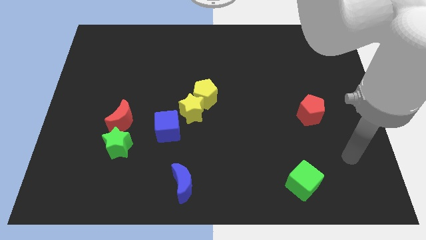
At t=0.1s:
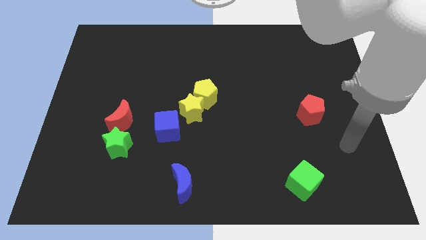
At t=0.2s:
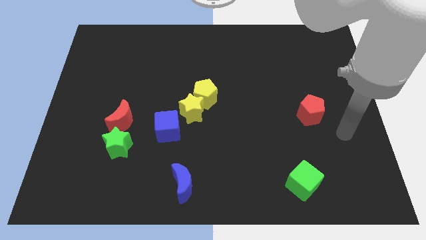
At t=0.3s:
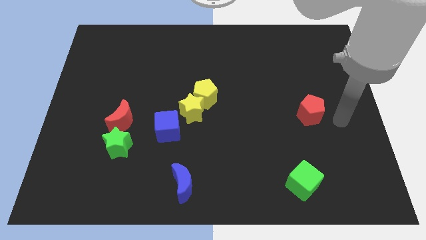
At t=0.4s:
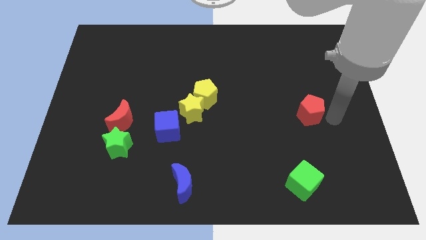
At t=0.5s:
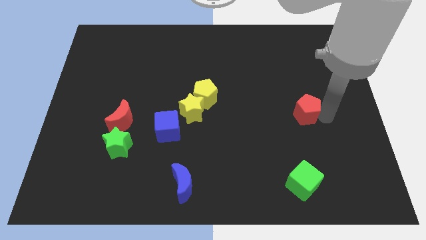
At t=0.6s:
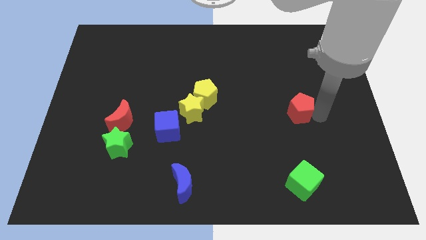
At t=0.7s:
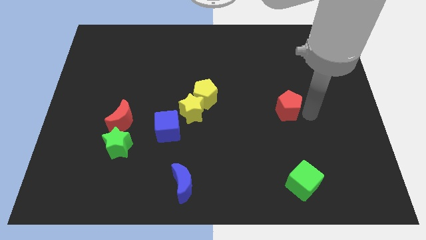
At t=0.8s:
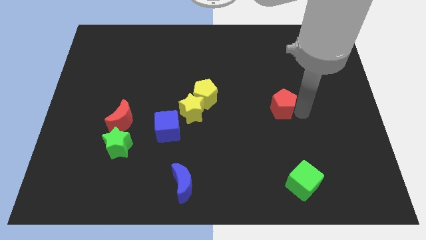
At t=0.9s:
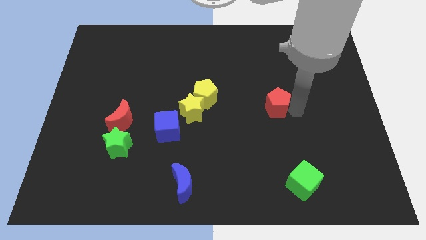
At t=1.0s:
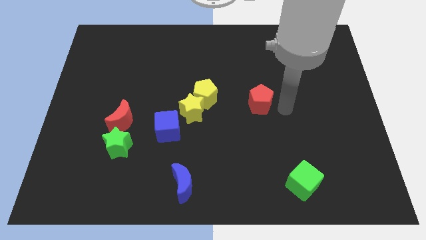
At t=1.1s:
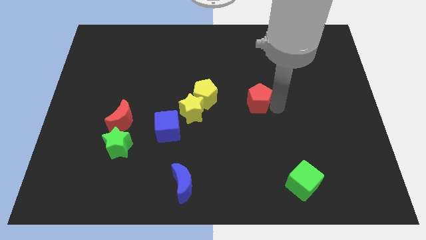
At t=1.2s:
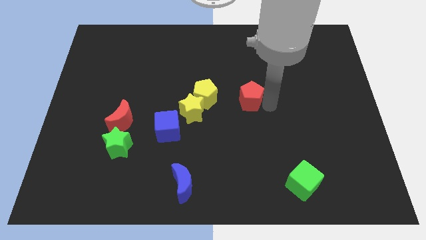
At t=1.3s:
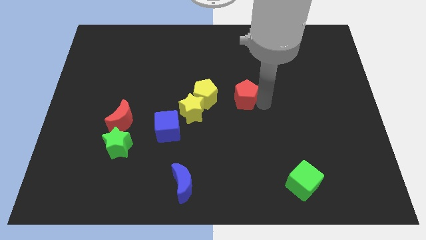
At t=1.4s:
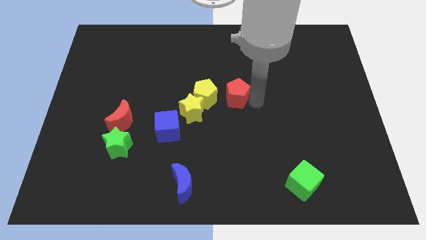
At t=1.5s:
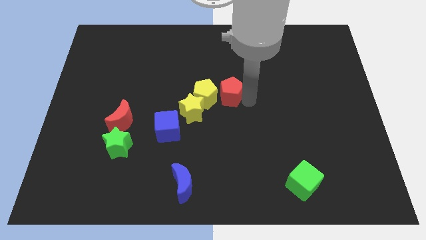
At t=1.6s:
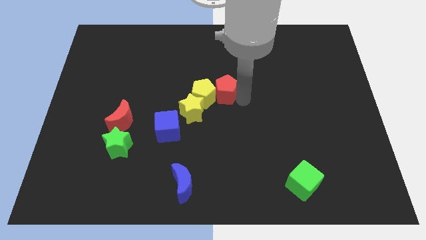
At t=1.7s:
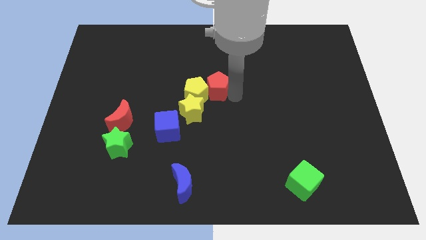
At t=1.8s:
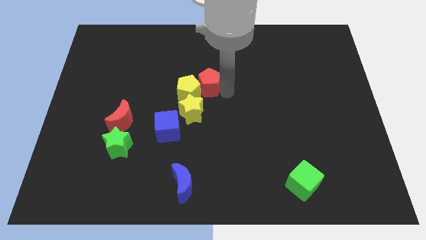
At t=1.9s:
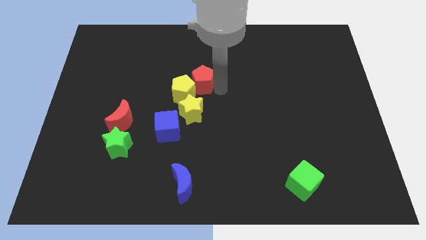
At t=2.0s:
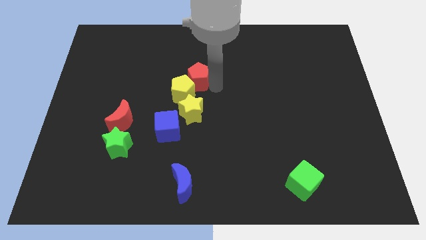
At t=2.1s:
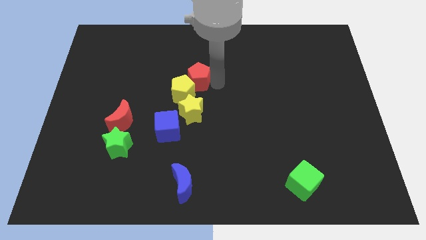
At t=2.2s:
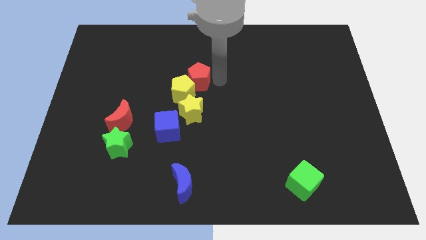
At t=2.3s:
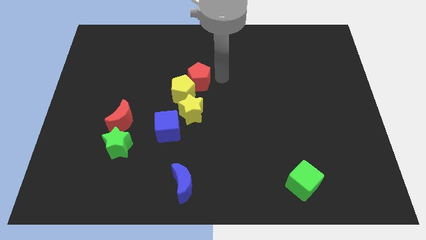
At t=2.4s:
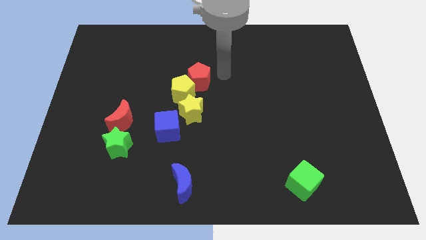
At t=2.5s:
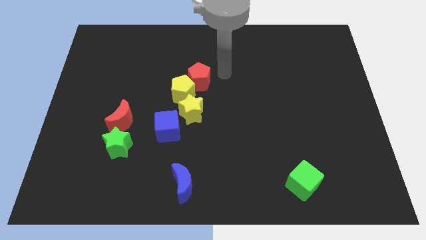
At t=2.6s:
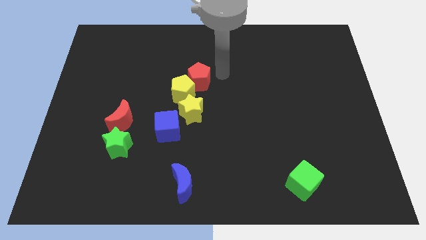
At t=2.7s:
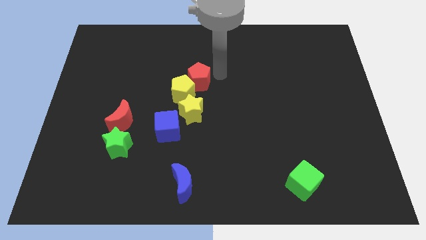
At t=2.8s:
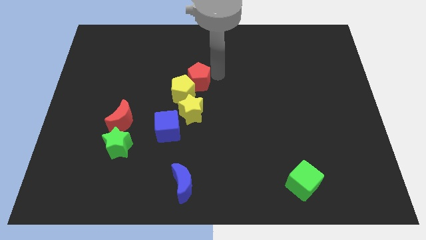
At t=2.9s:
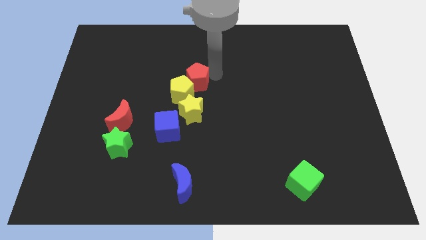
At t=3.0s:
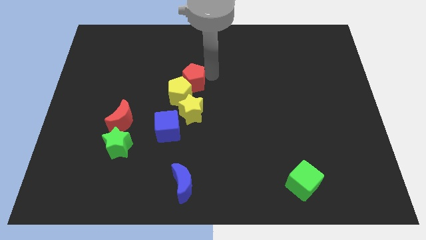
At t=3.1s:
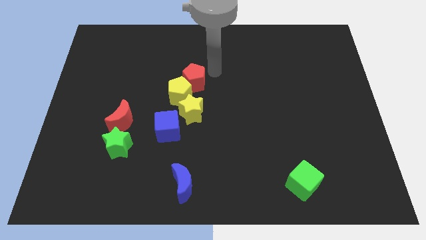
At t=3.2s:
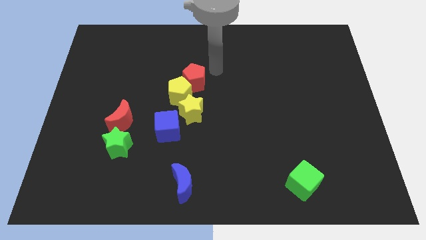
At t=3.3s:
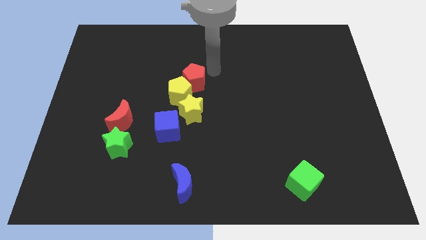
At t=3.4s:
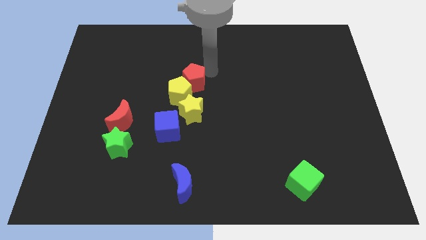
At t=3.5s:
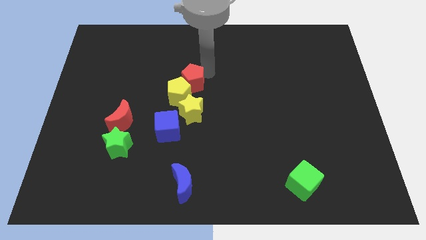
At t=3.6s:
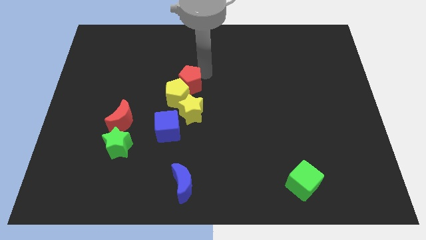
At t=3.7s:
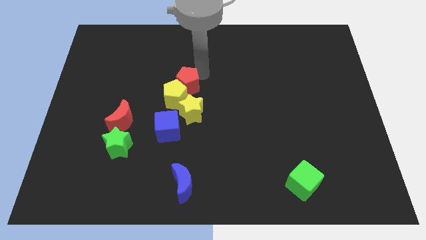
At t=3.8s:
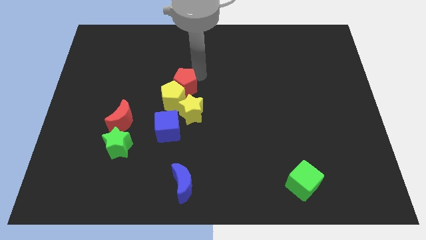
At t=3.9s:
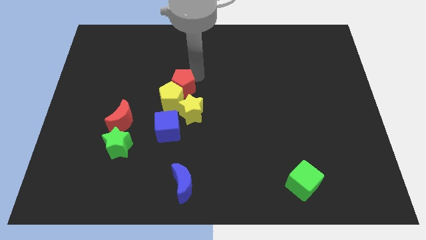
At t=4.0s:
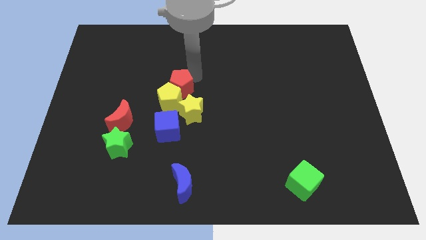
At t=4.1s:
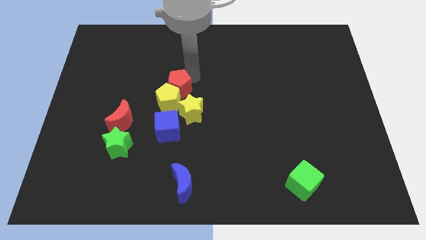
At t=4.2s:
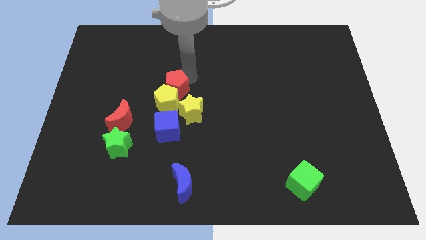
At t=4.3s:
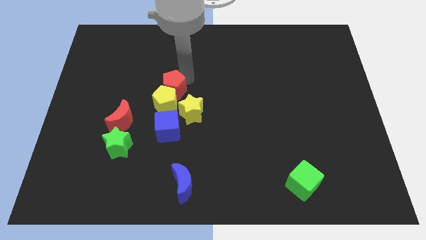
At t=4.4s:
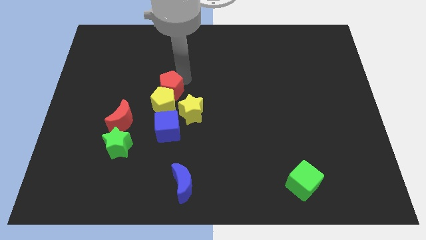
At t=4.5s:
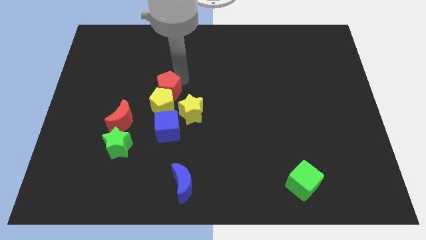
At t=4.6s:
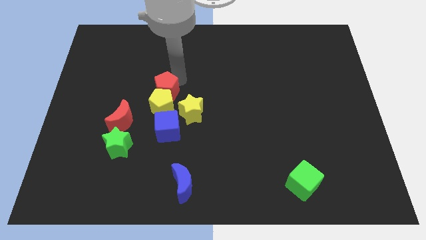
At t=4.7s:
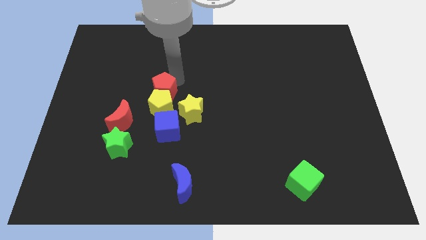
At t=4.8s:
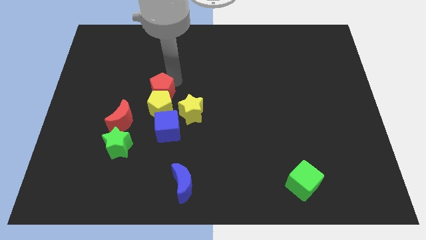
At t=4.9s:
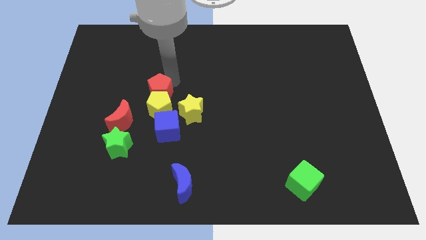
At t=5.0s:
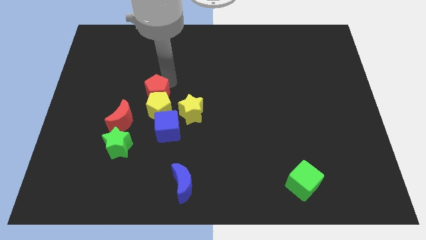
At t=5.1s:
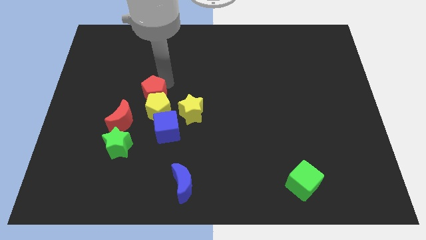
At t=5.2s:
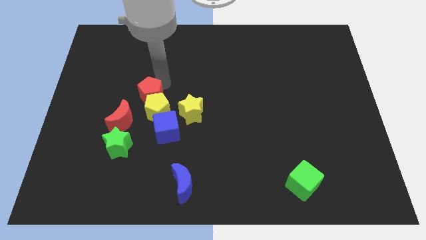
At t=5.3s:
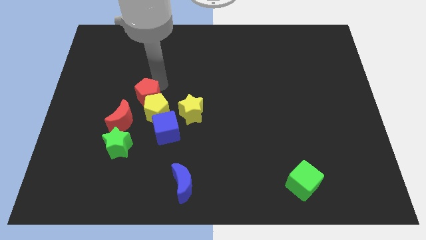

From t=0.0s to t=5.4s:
push the red pentagon to the left side of the yellow star

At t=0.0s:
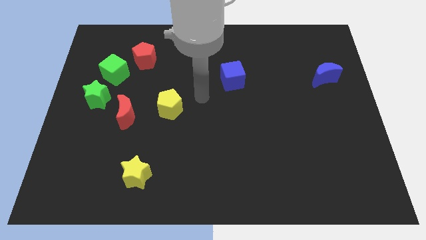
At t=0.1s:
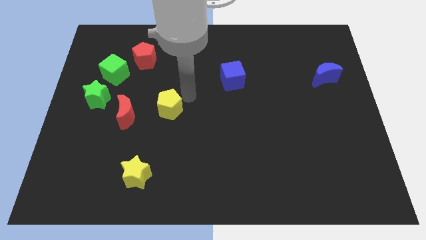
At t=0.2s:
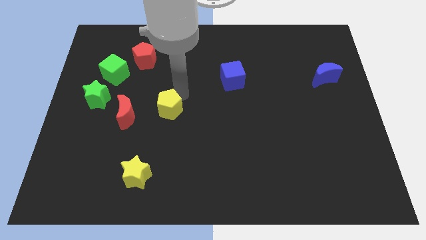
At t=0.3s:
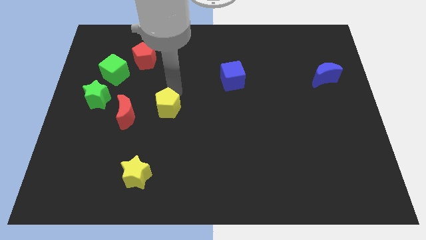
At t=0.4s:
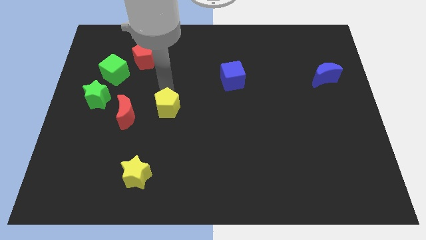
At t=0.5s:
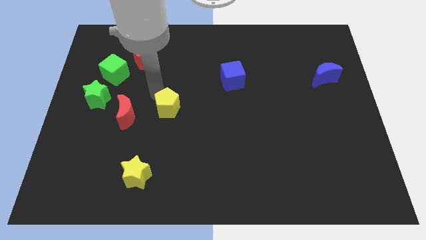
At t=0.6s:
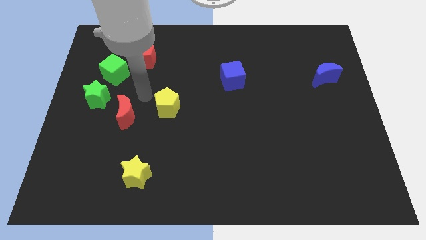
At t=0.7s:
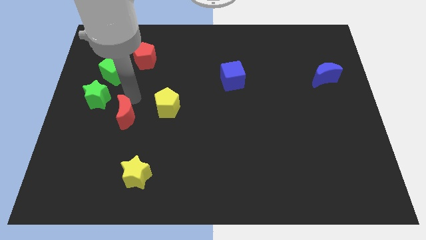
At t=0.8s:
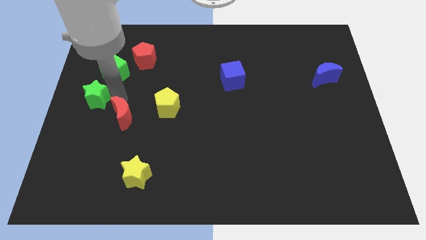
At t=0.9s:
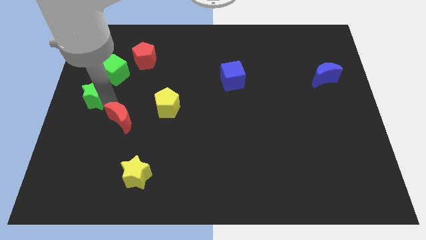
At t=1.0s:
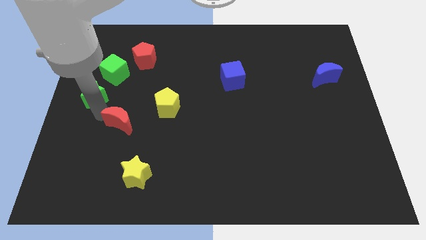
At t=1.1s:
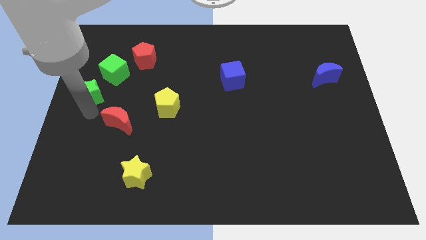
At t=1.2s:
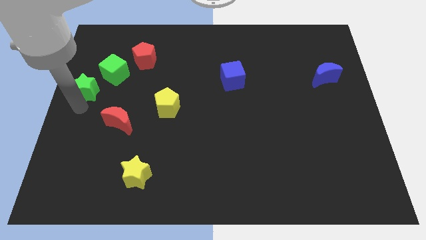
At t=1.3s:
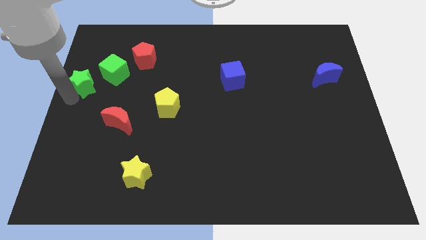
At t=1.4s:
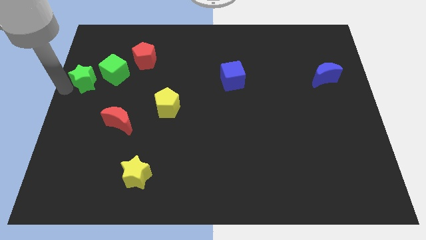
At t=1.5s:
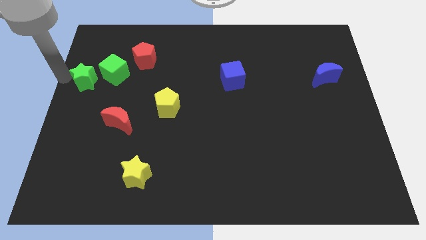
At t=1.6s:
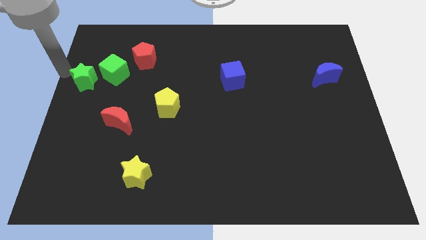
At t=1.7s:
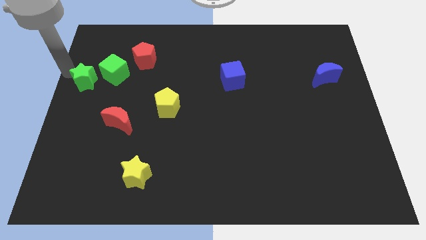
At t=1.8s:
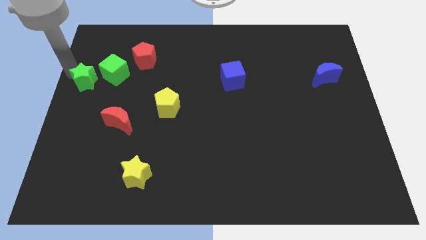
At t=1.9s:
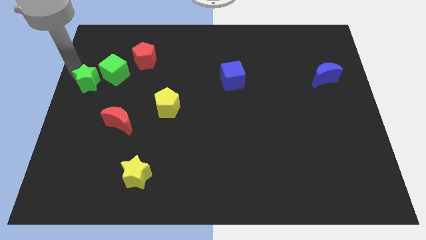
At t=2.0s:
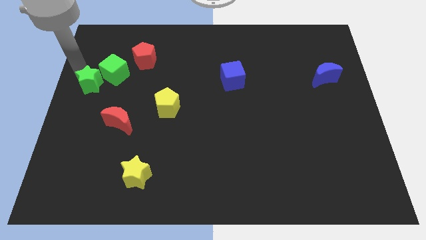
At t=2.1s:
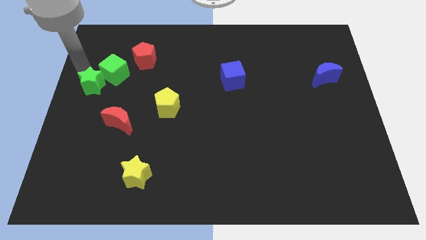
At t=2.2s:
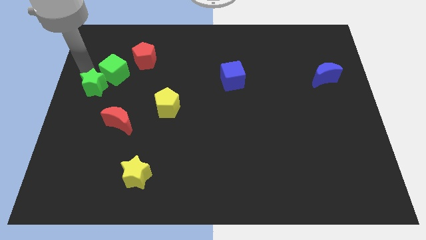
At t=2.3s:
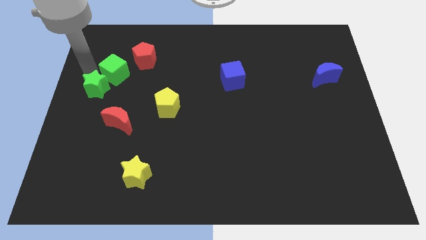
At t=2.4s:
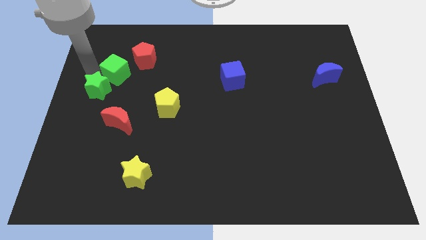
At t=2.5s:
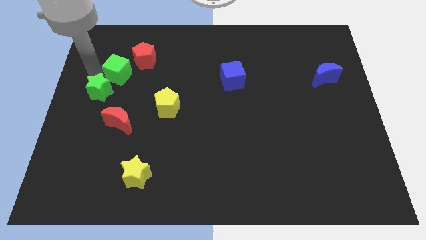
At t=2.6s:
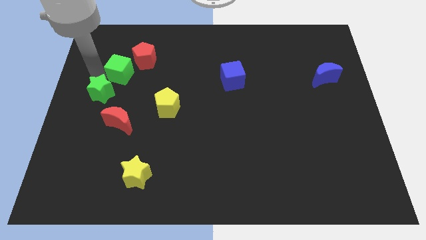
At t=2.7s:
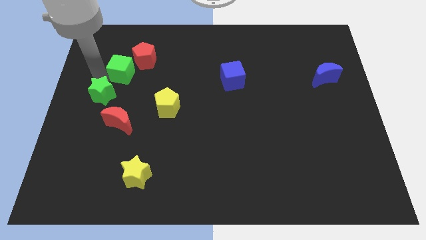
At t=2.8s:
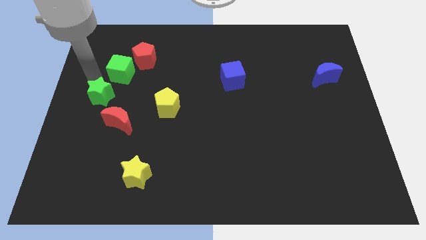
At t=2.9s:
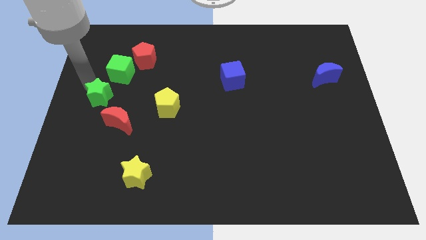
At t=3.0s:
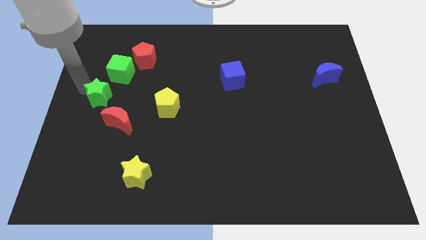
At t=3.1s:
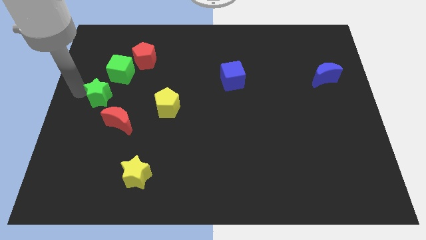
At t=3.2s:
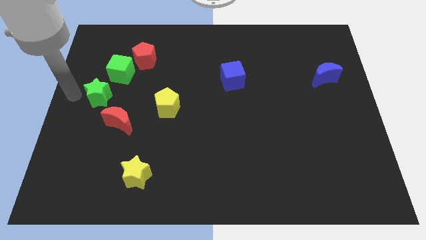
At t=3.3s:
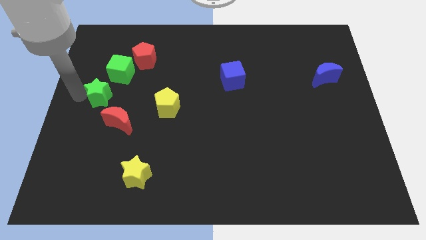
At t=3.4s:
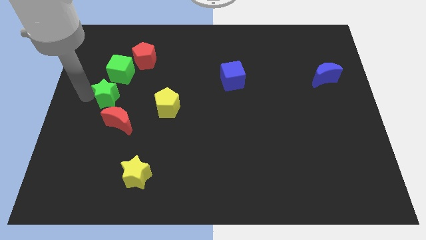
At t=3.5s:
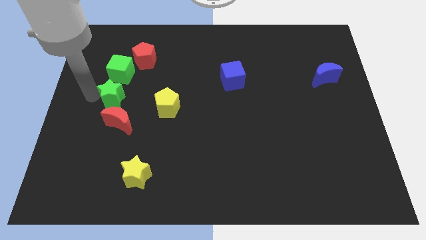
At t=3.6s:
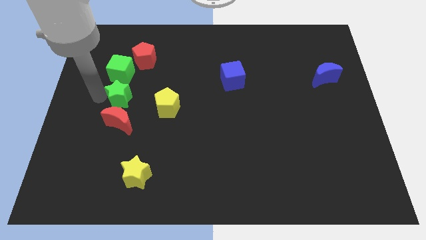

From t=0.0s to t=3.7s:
push the green star below the red pentagon
